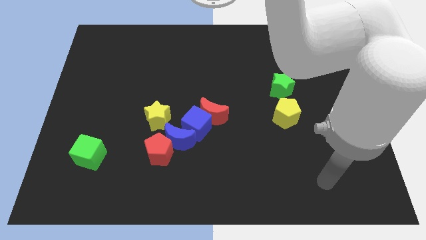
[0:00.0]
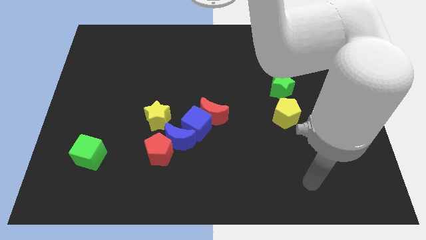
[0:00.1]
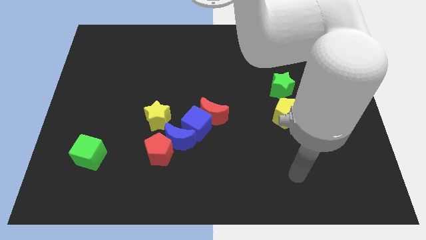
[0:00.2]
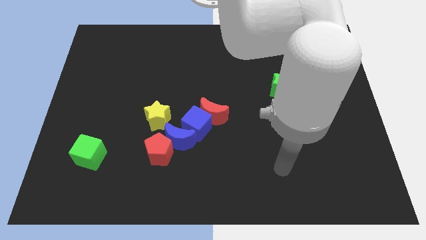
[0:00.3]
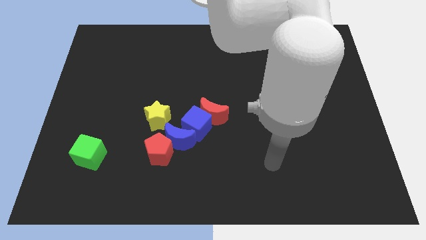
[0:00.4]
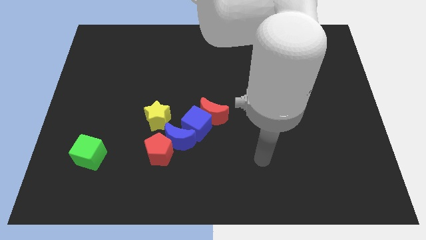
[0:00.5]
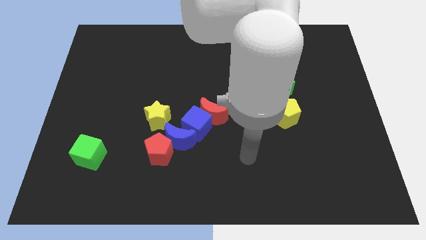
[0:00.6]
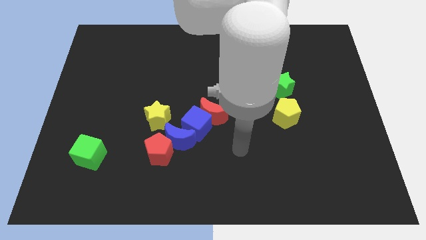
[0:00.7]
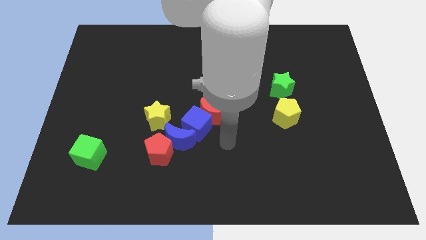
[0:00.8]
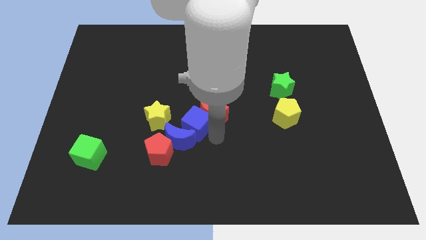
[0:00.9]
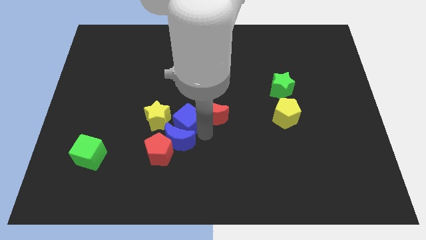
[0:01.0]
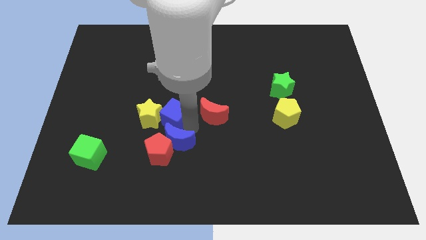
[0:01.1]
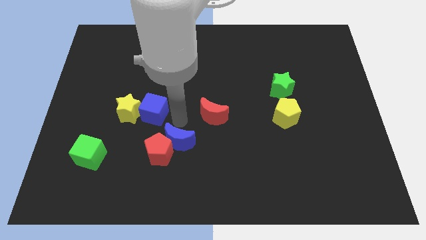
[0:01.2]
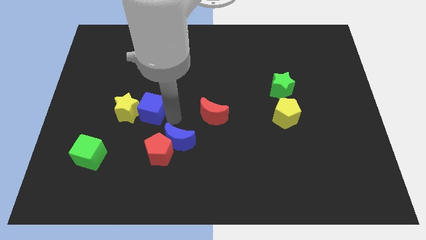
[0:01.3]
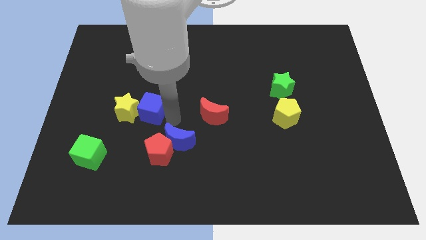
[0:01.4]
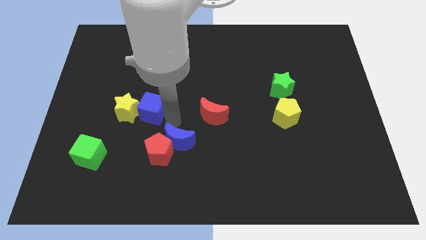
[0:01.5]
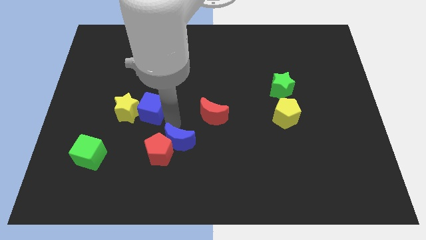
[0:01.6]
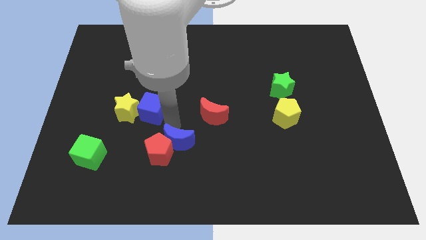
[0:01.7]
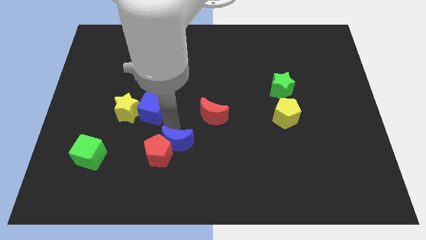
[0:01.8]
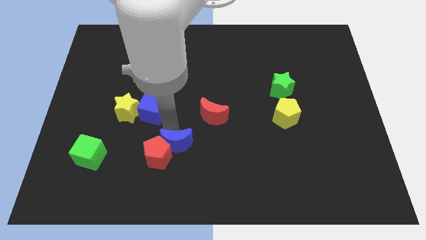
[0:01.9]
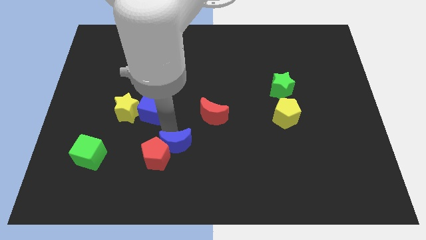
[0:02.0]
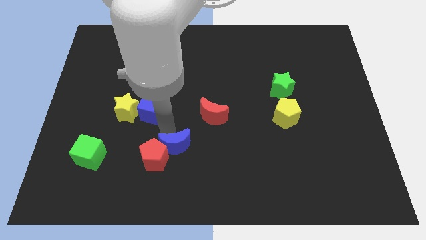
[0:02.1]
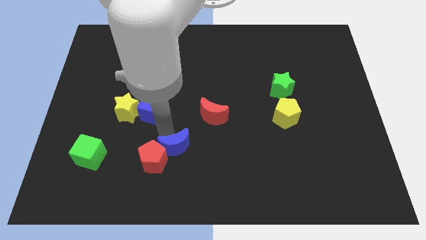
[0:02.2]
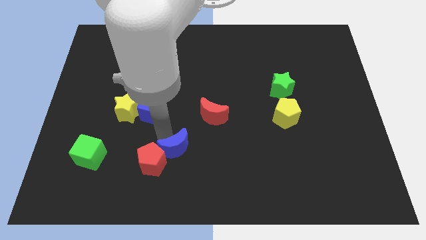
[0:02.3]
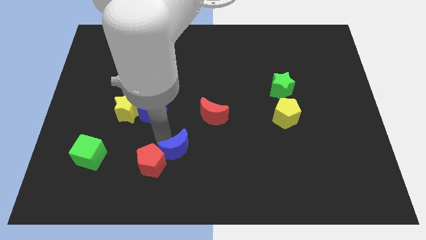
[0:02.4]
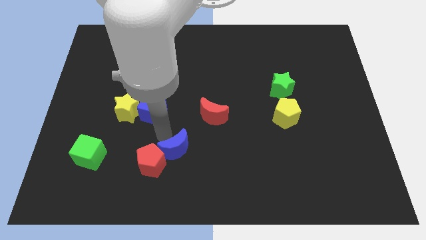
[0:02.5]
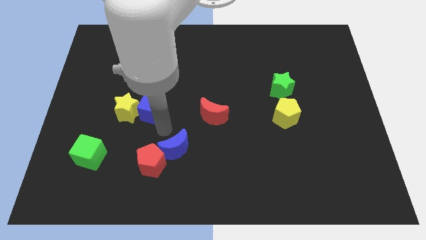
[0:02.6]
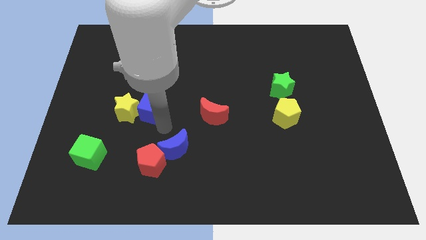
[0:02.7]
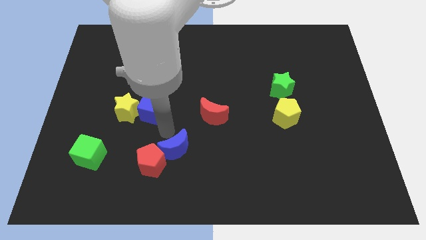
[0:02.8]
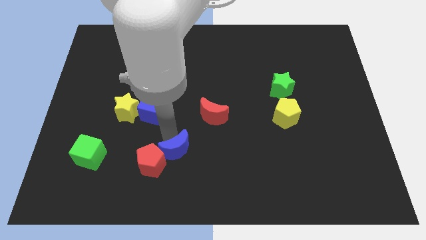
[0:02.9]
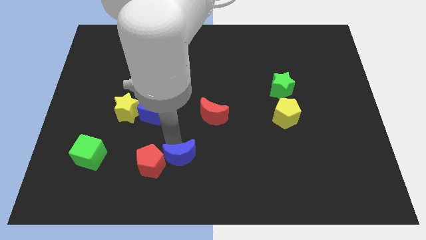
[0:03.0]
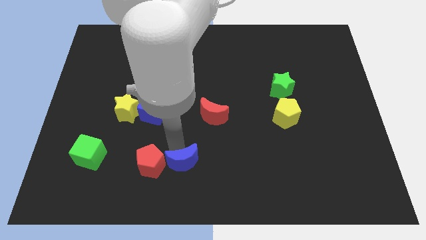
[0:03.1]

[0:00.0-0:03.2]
separate the blue moon from the group

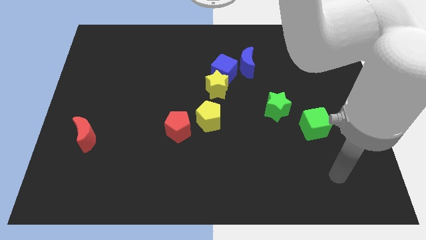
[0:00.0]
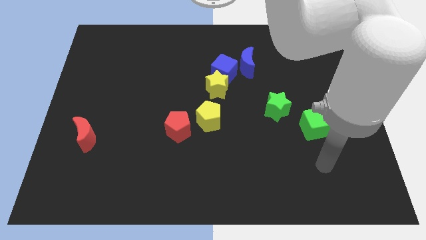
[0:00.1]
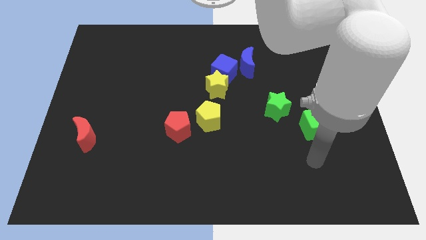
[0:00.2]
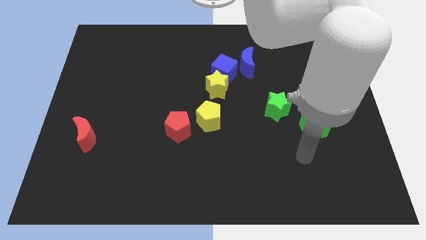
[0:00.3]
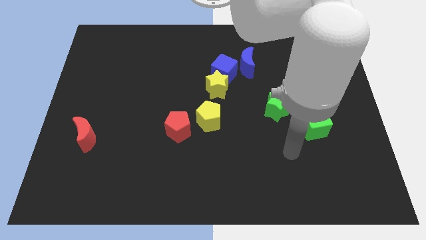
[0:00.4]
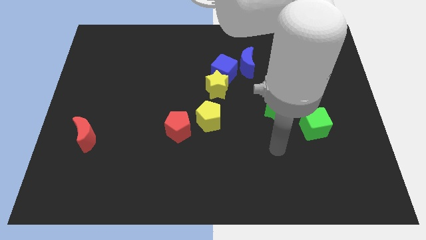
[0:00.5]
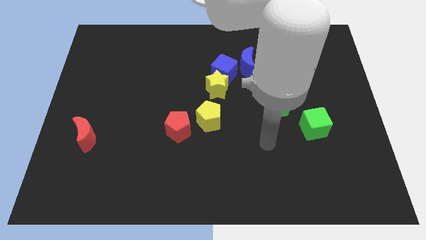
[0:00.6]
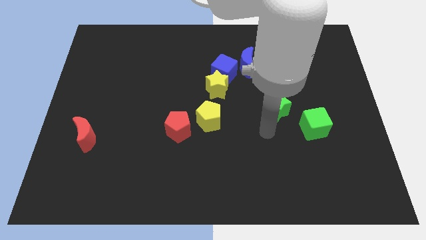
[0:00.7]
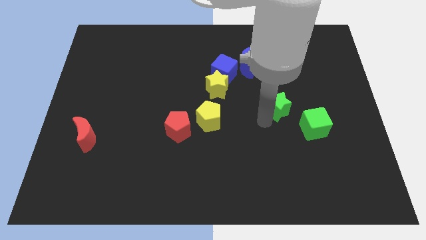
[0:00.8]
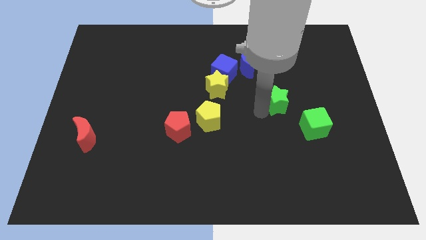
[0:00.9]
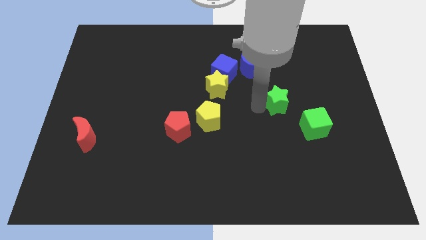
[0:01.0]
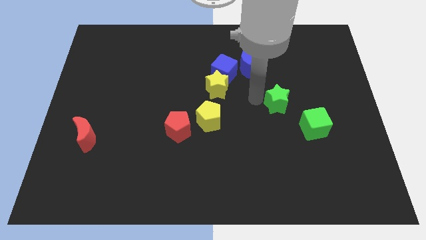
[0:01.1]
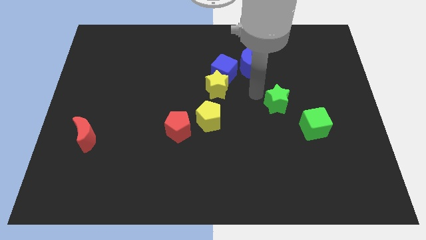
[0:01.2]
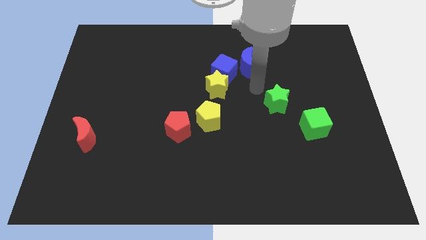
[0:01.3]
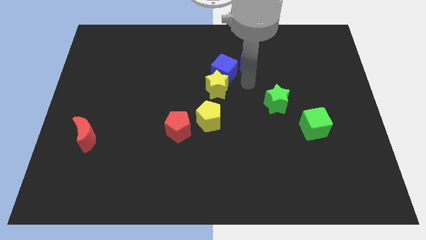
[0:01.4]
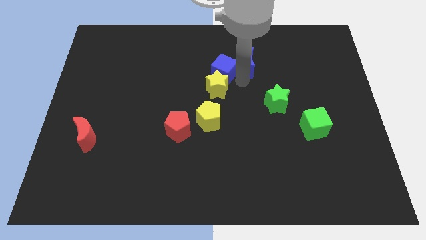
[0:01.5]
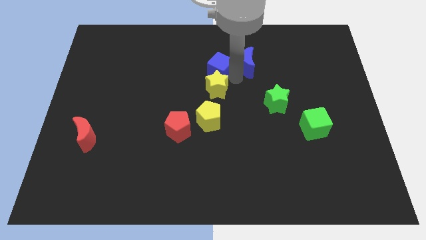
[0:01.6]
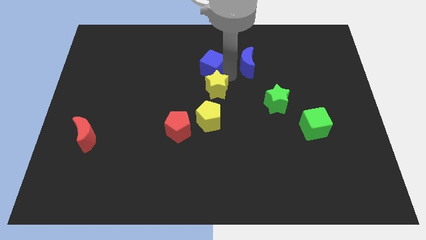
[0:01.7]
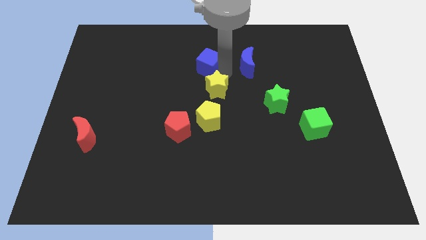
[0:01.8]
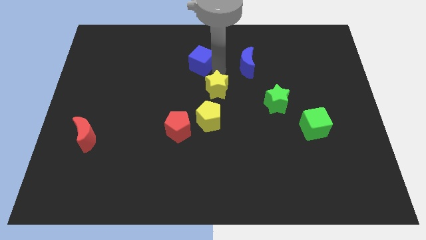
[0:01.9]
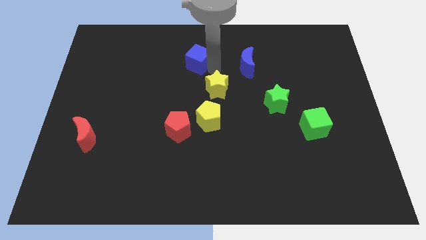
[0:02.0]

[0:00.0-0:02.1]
separate the blue cube from the yellow star and blue moon

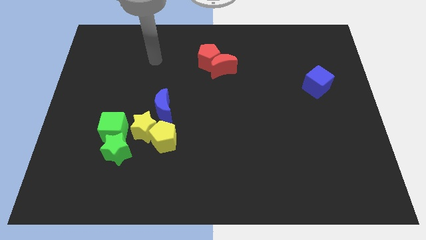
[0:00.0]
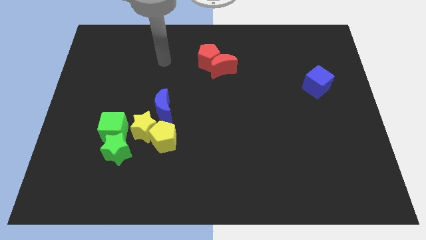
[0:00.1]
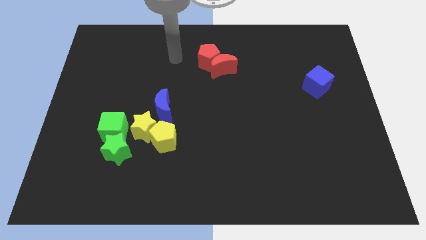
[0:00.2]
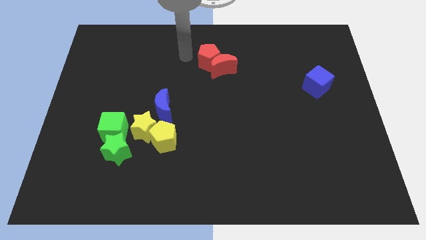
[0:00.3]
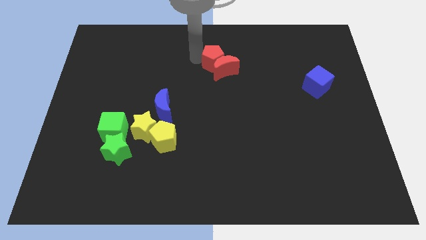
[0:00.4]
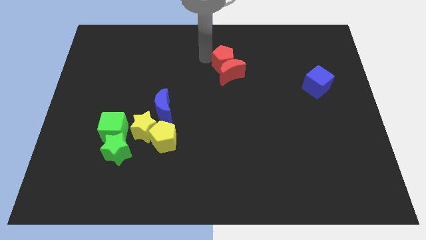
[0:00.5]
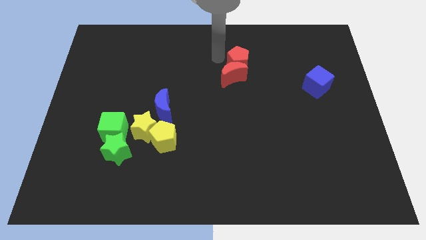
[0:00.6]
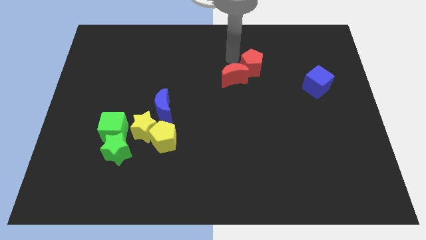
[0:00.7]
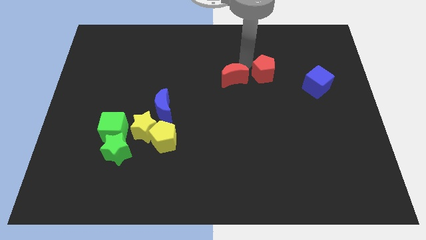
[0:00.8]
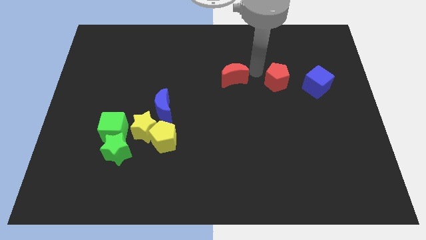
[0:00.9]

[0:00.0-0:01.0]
move the red moon away from the red pentagon

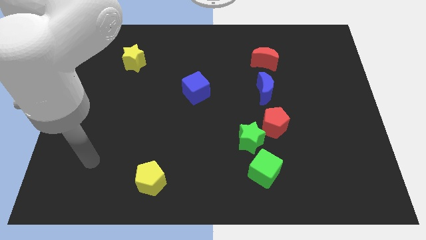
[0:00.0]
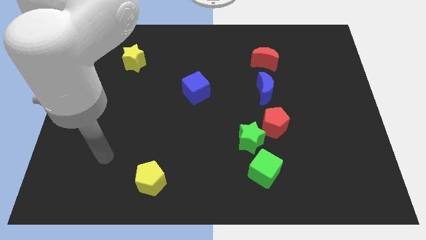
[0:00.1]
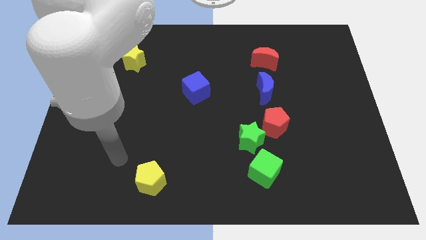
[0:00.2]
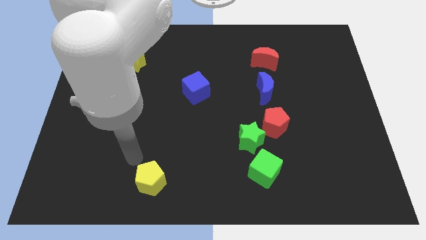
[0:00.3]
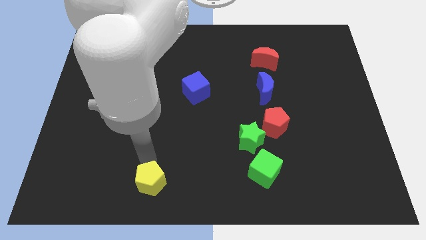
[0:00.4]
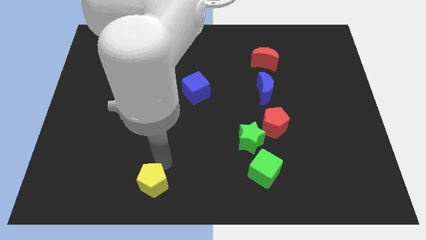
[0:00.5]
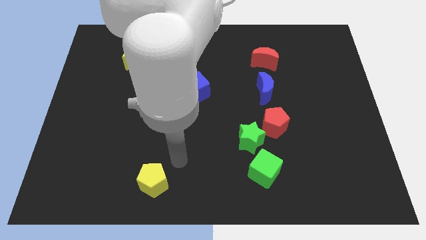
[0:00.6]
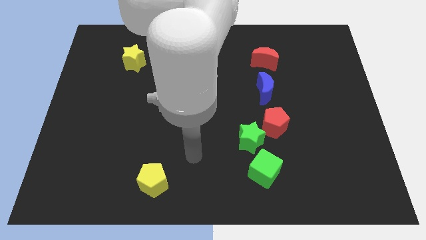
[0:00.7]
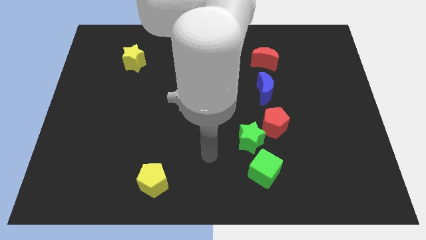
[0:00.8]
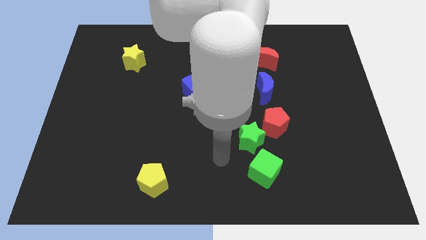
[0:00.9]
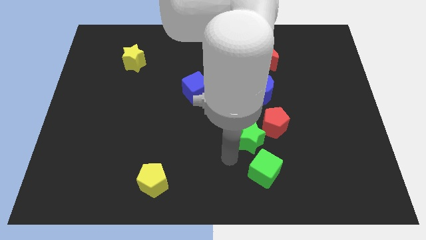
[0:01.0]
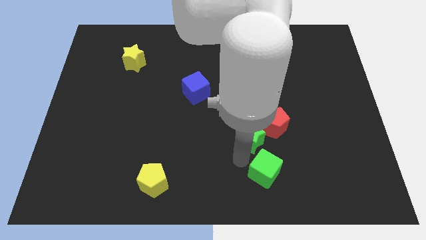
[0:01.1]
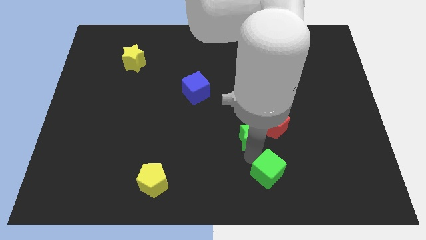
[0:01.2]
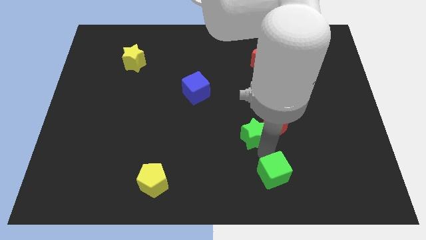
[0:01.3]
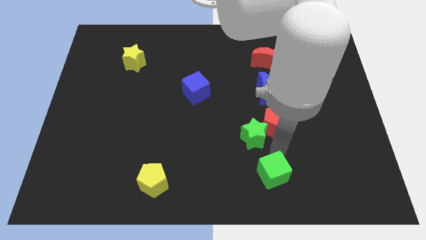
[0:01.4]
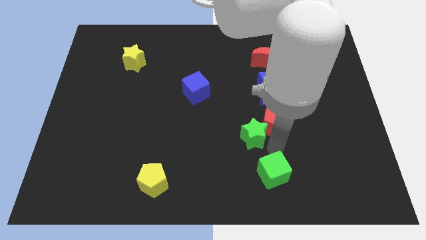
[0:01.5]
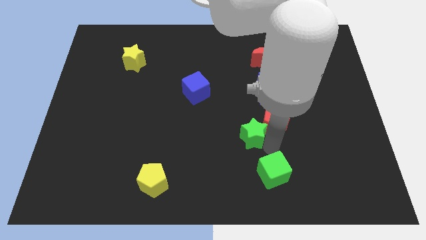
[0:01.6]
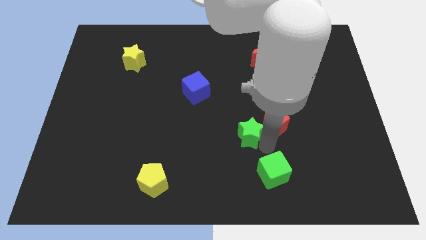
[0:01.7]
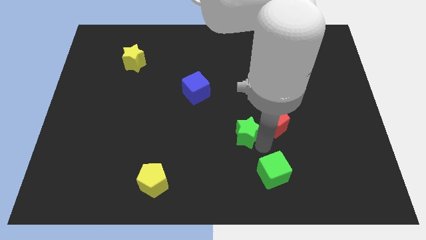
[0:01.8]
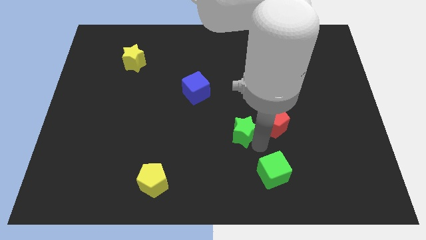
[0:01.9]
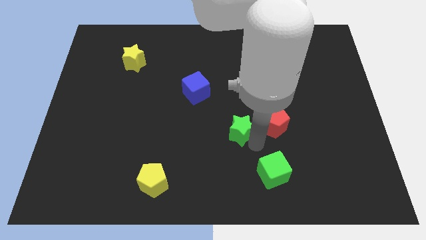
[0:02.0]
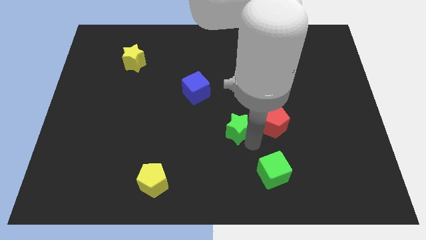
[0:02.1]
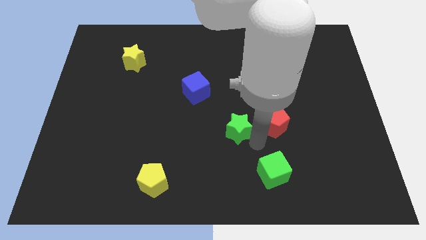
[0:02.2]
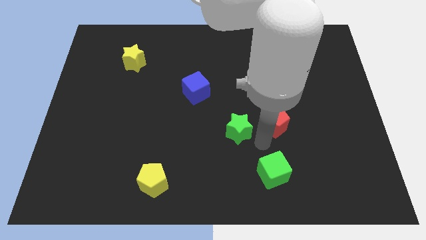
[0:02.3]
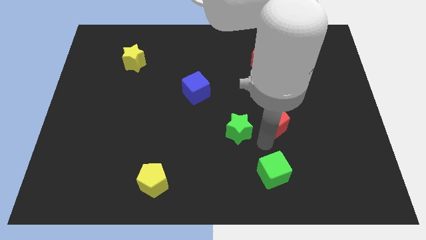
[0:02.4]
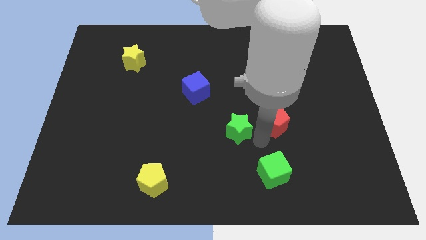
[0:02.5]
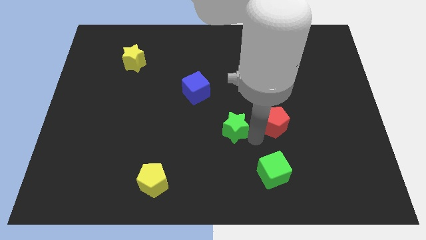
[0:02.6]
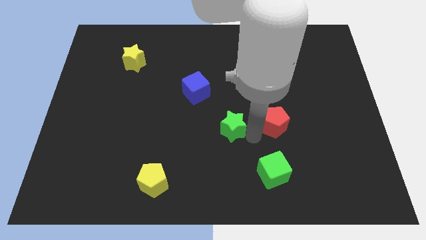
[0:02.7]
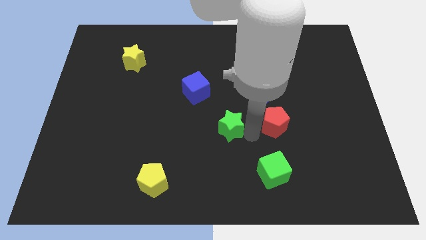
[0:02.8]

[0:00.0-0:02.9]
pull the green star apart from the red pentagon and green cube

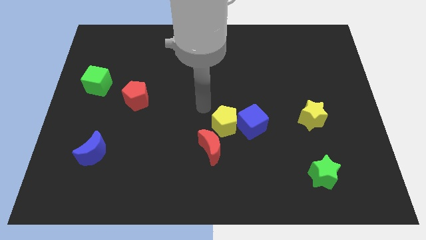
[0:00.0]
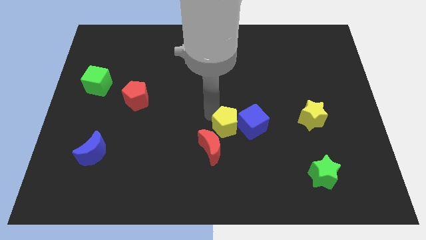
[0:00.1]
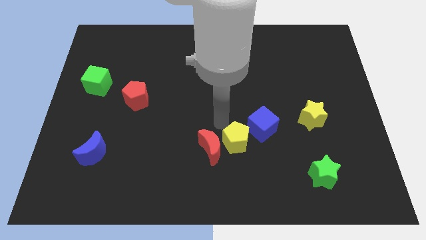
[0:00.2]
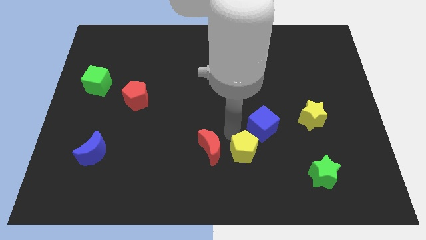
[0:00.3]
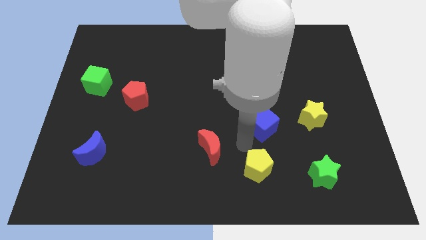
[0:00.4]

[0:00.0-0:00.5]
separate the blue cube from the yellow pentagon
